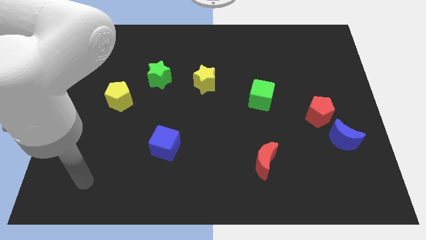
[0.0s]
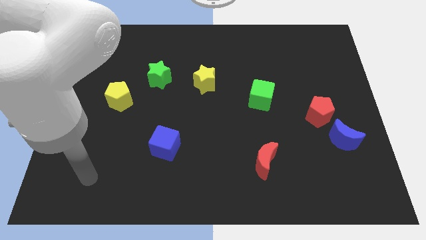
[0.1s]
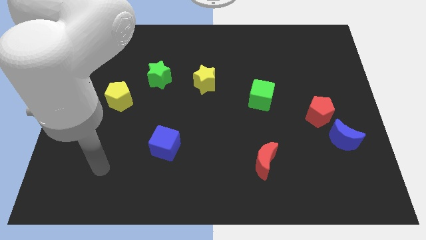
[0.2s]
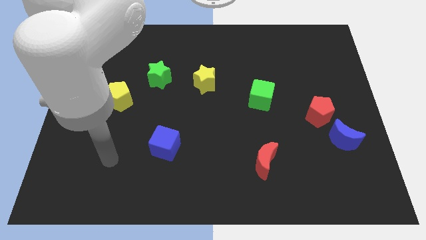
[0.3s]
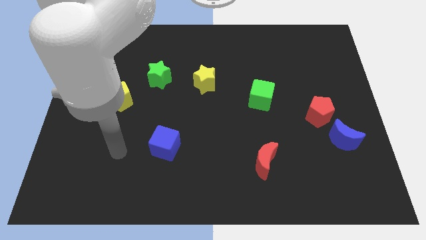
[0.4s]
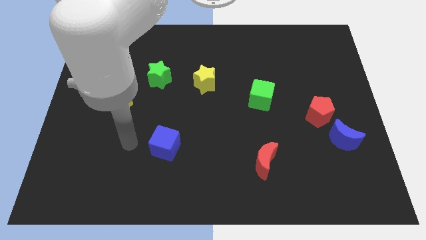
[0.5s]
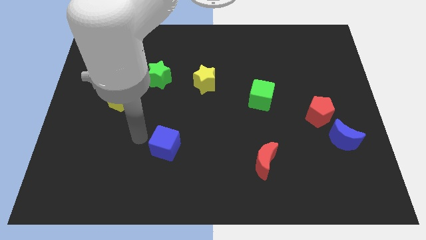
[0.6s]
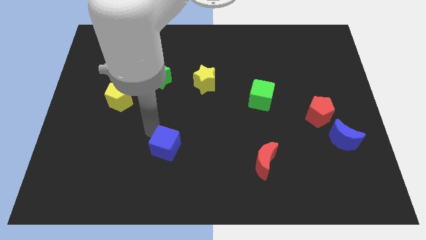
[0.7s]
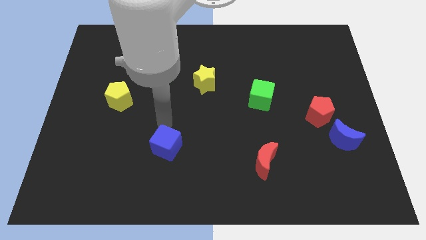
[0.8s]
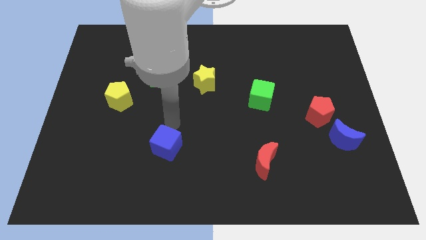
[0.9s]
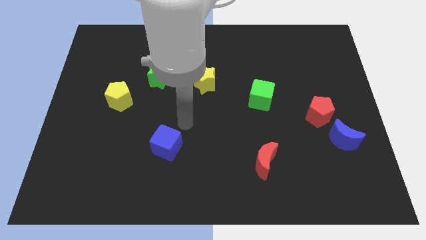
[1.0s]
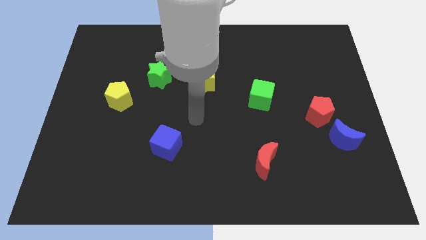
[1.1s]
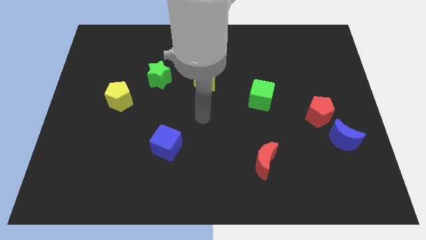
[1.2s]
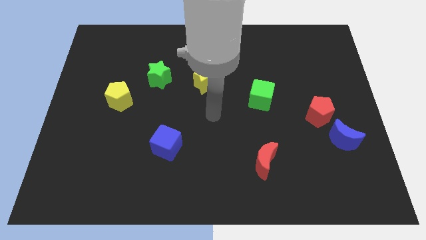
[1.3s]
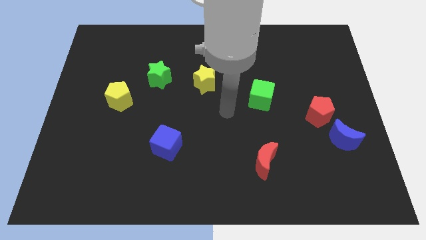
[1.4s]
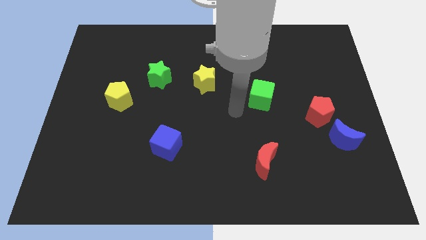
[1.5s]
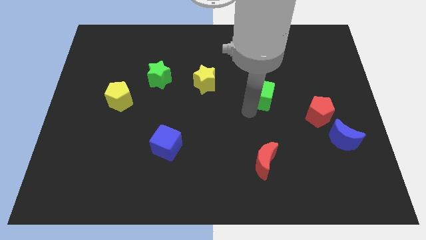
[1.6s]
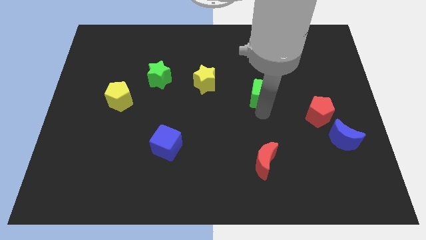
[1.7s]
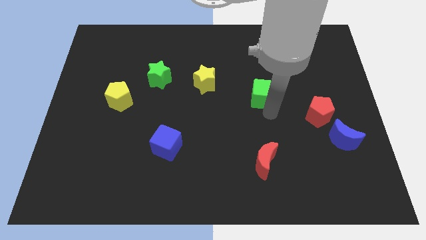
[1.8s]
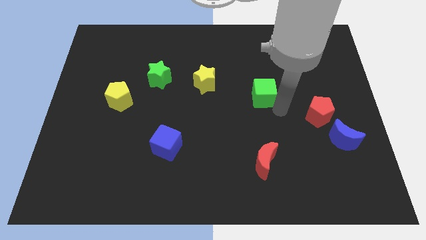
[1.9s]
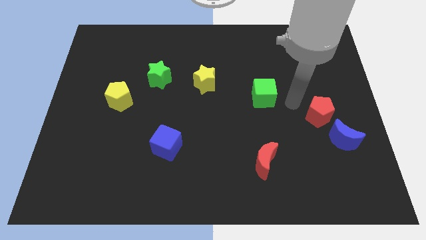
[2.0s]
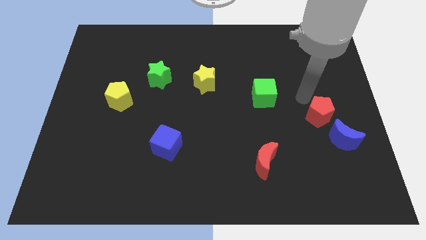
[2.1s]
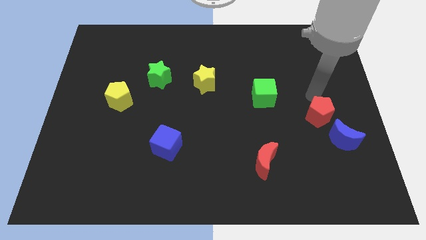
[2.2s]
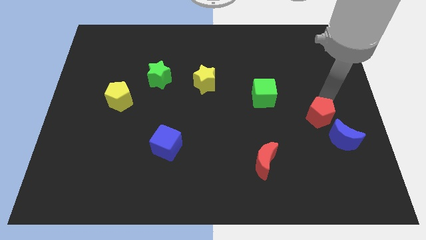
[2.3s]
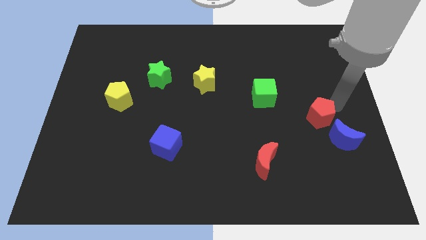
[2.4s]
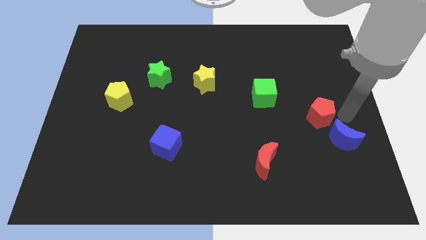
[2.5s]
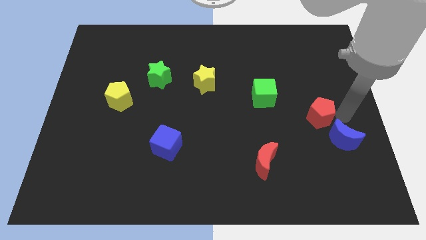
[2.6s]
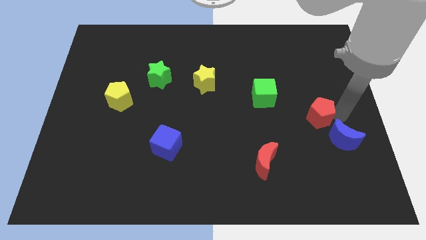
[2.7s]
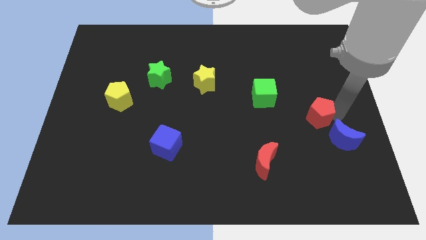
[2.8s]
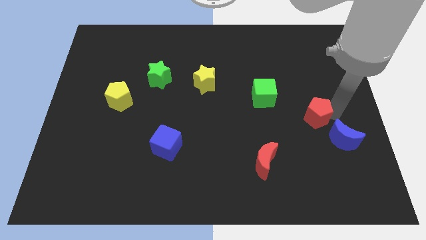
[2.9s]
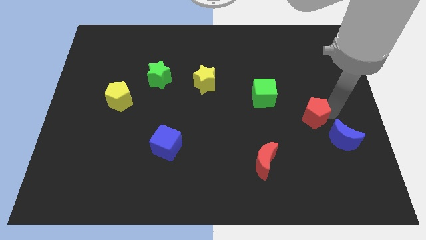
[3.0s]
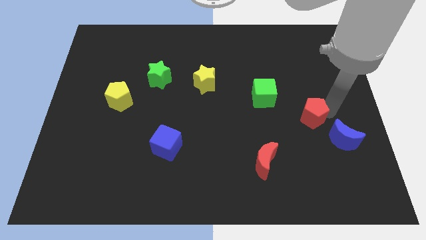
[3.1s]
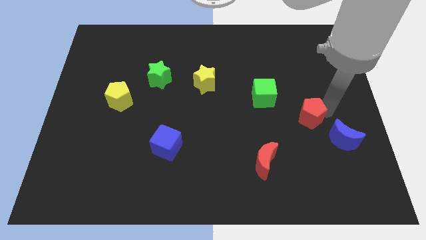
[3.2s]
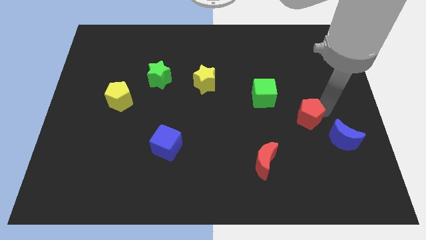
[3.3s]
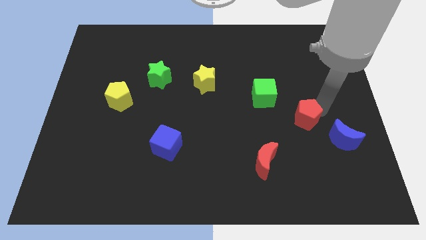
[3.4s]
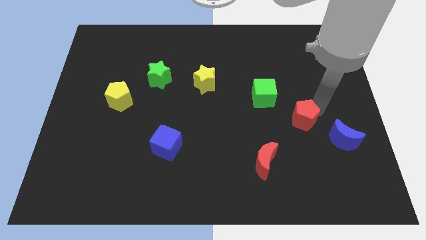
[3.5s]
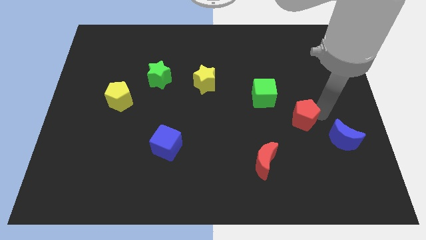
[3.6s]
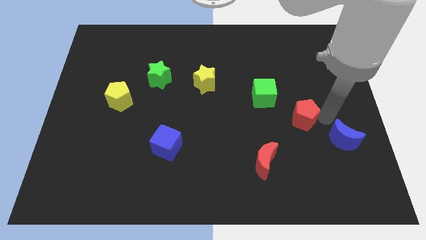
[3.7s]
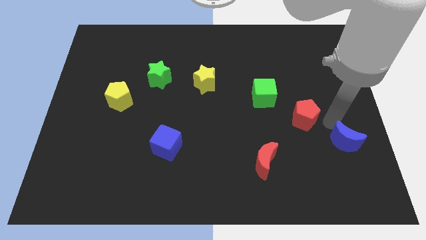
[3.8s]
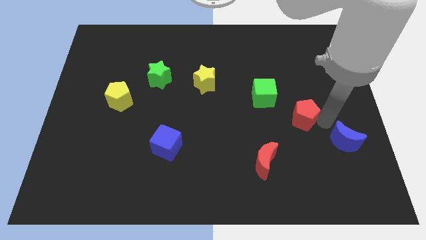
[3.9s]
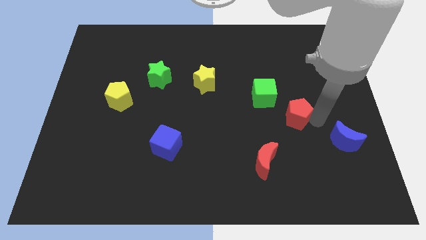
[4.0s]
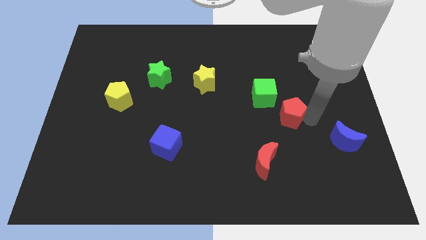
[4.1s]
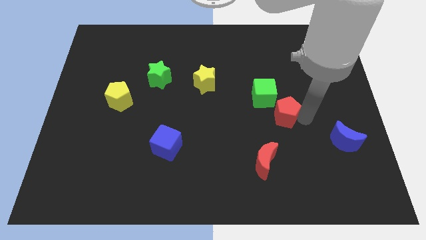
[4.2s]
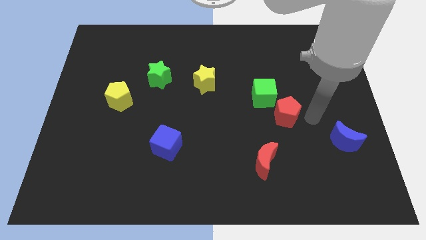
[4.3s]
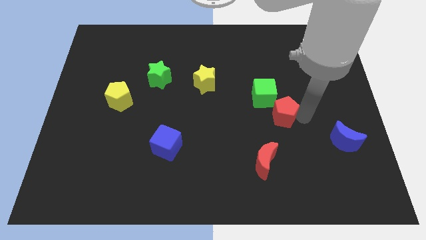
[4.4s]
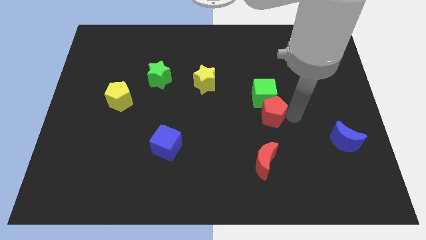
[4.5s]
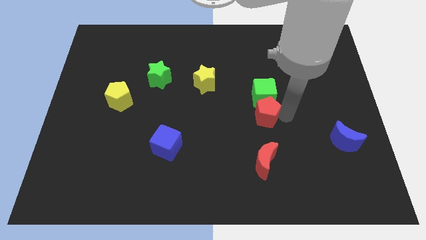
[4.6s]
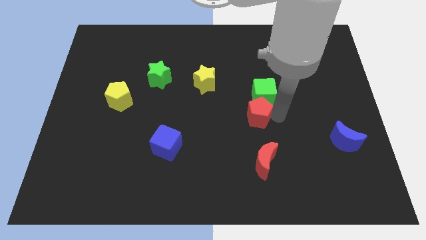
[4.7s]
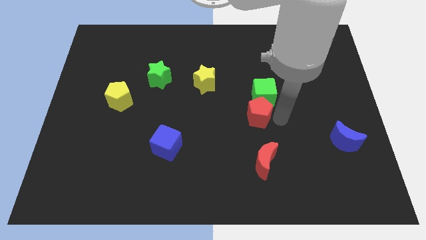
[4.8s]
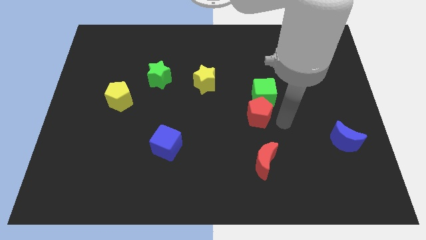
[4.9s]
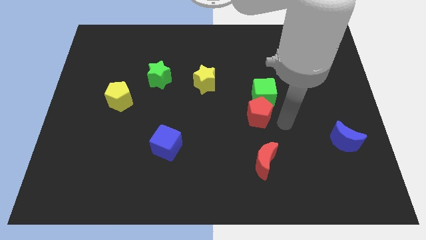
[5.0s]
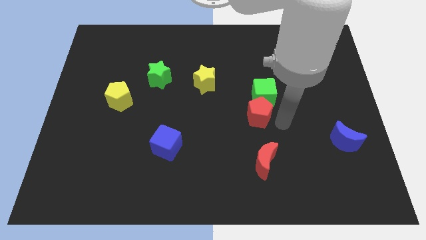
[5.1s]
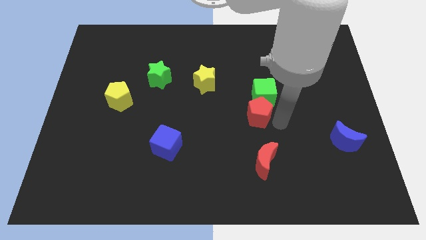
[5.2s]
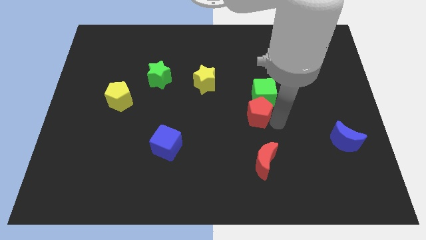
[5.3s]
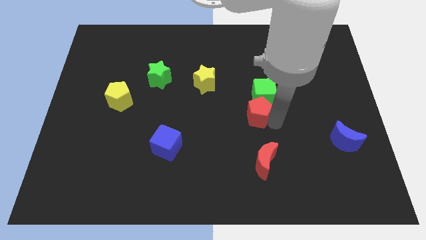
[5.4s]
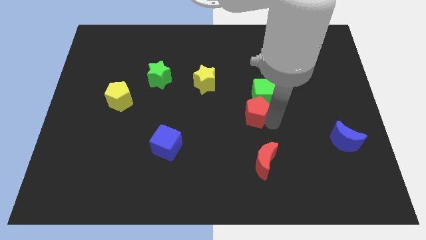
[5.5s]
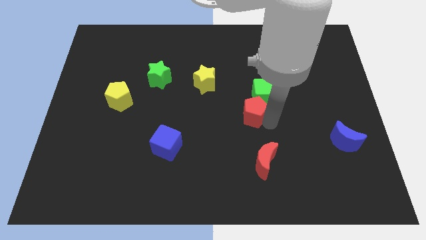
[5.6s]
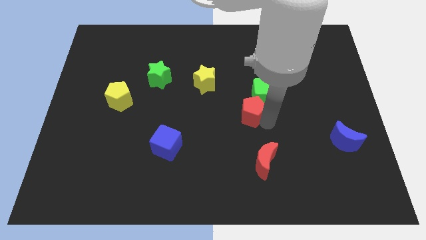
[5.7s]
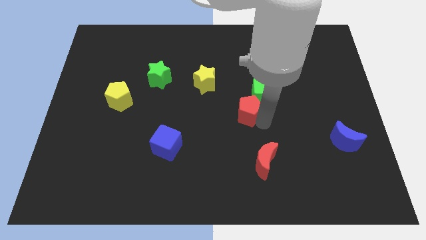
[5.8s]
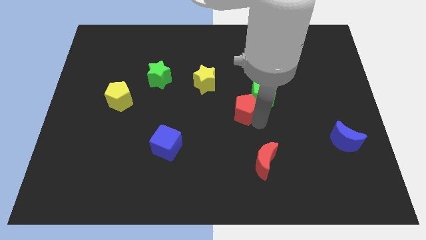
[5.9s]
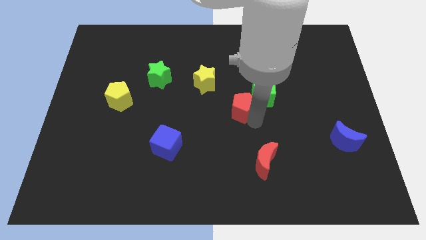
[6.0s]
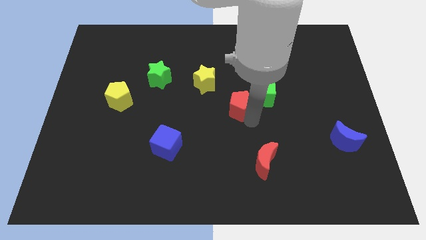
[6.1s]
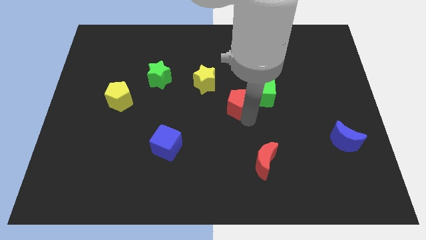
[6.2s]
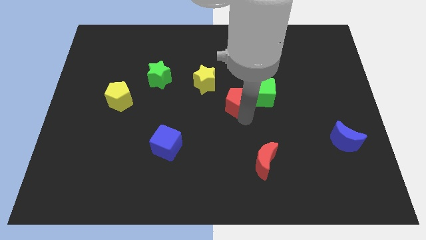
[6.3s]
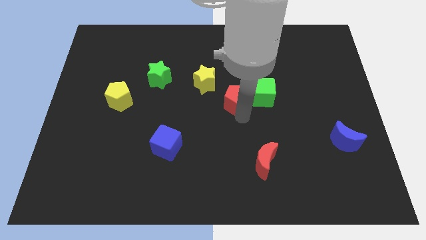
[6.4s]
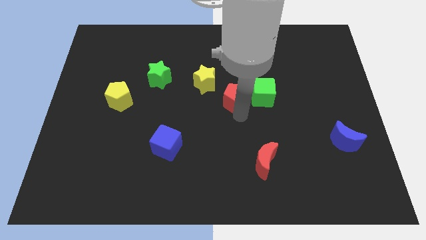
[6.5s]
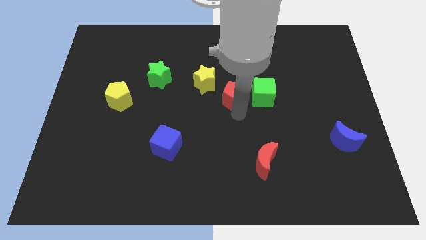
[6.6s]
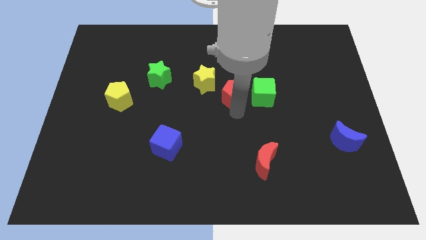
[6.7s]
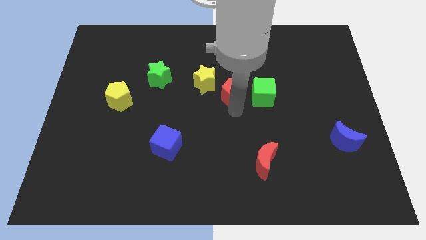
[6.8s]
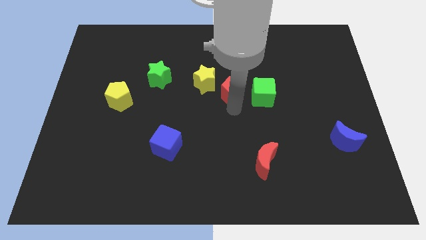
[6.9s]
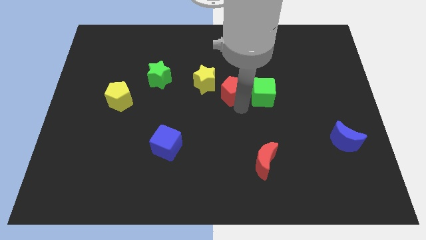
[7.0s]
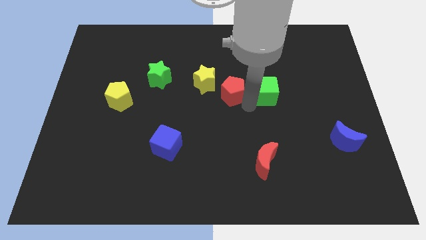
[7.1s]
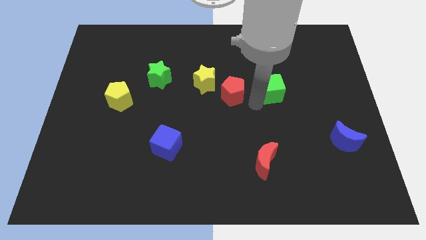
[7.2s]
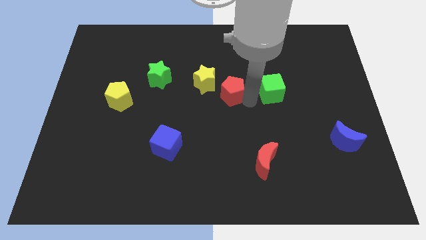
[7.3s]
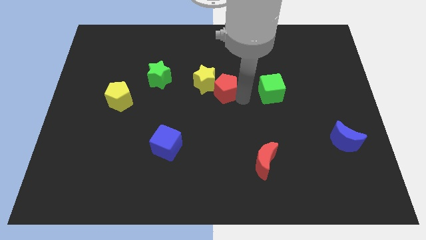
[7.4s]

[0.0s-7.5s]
put the red pentagon close to the yellow star
